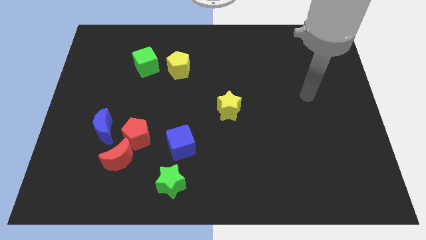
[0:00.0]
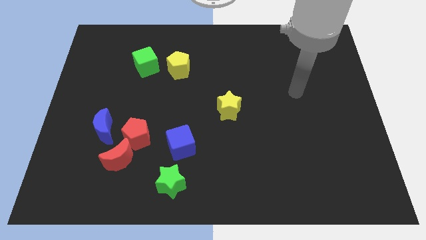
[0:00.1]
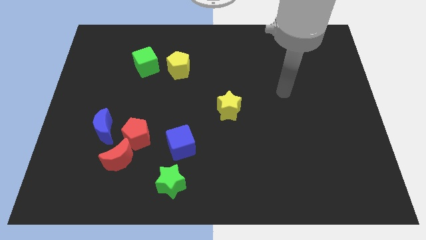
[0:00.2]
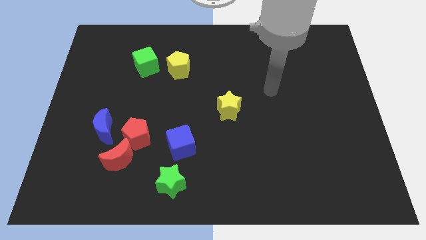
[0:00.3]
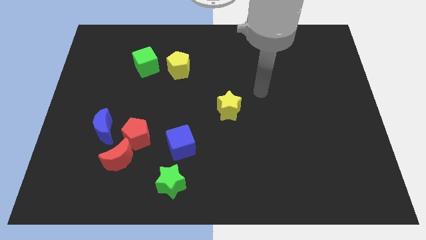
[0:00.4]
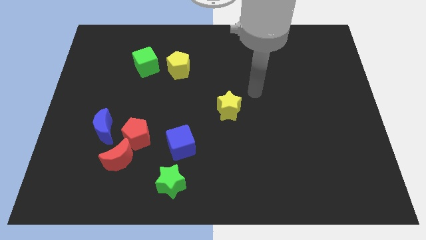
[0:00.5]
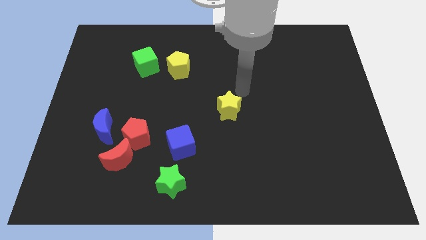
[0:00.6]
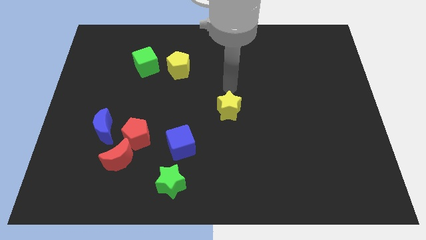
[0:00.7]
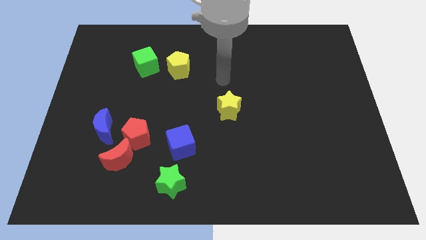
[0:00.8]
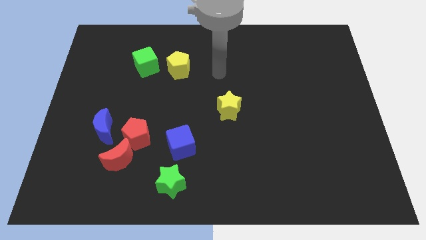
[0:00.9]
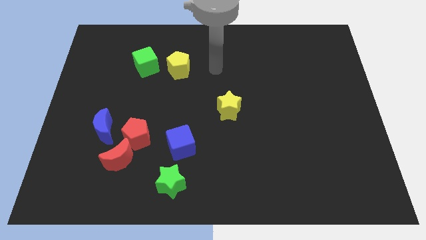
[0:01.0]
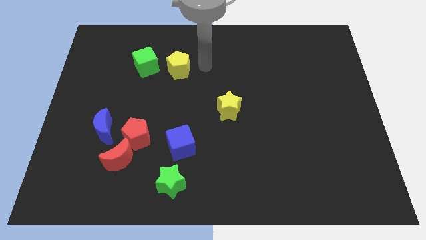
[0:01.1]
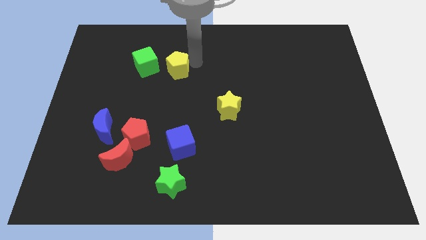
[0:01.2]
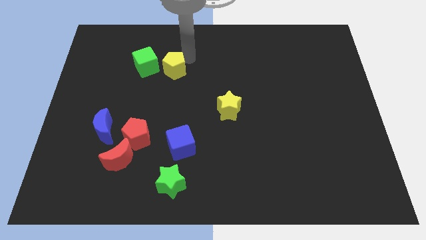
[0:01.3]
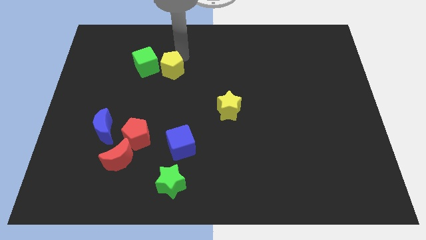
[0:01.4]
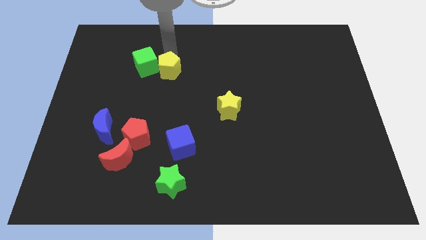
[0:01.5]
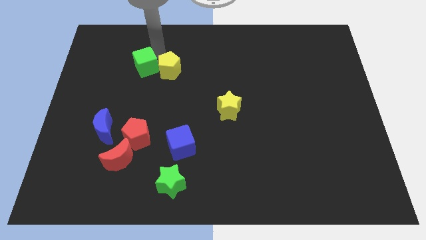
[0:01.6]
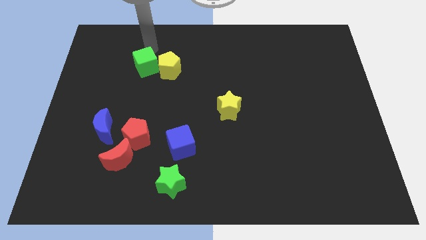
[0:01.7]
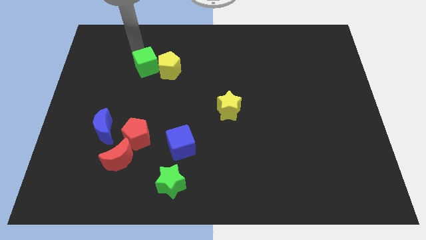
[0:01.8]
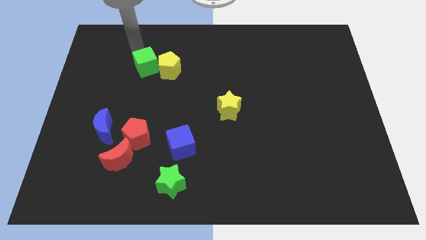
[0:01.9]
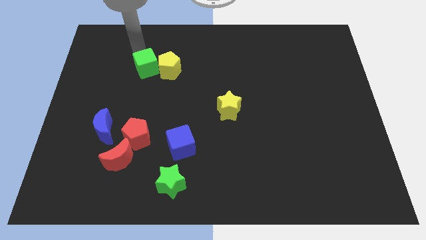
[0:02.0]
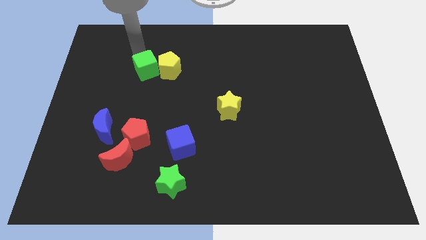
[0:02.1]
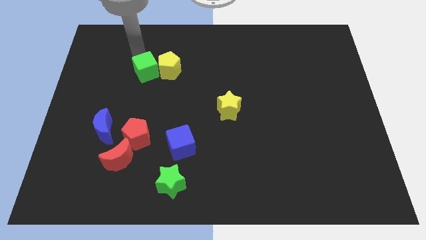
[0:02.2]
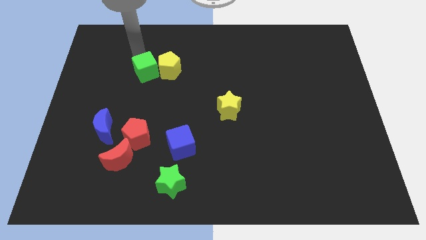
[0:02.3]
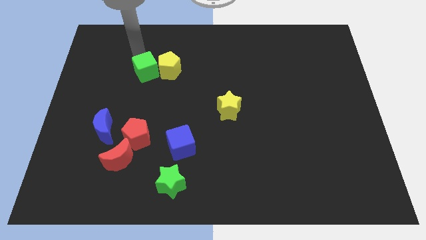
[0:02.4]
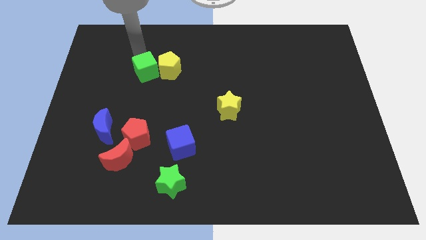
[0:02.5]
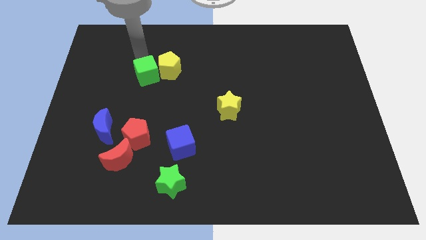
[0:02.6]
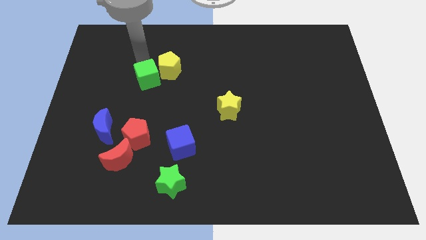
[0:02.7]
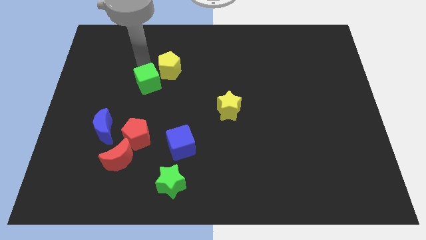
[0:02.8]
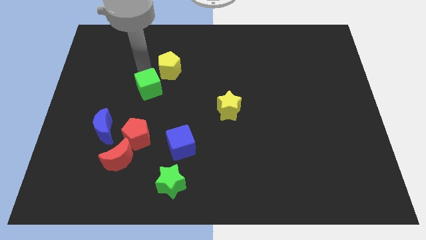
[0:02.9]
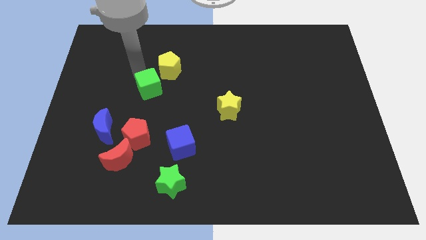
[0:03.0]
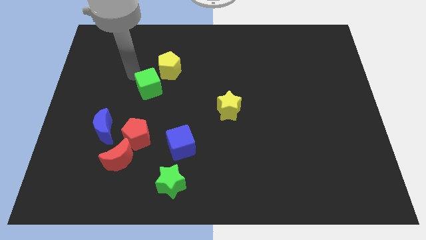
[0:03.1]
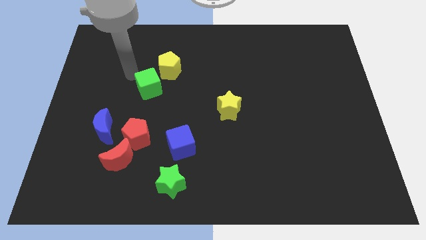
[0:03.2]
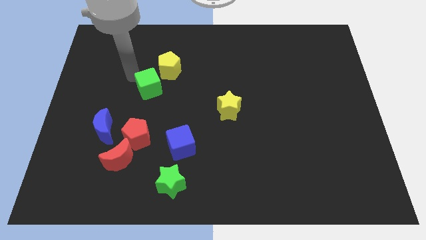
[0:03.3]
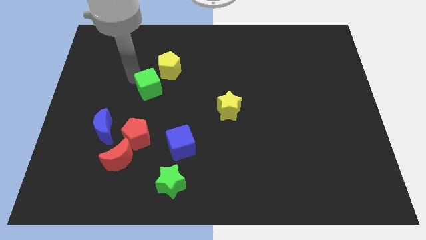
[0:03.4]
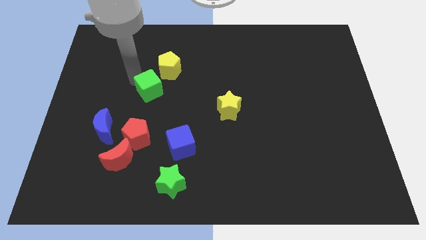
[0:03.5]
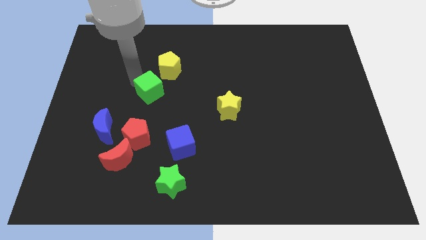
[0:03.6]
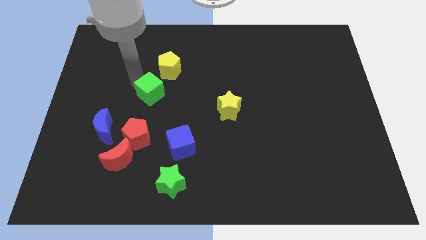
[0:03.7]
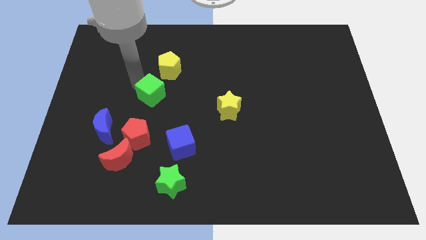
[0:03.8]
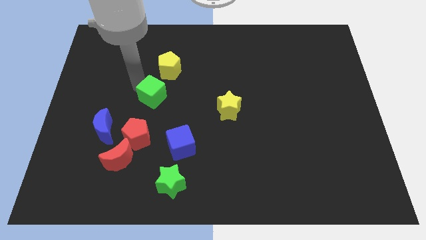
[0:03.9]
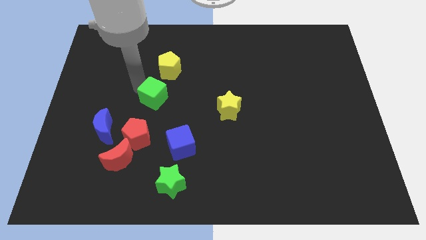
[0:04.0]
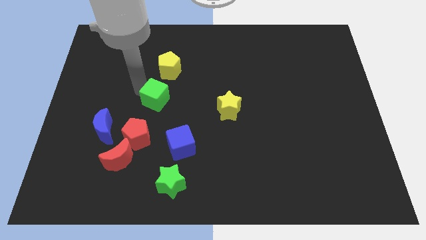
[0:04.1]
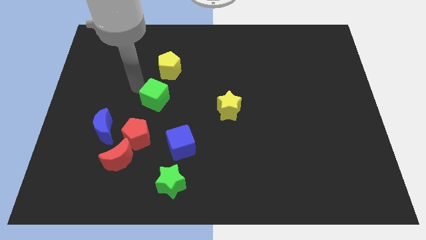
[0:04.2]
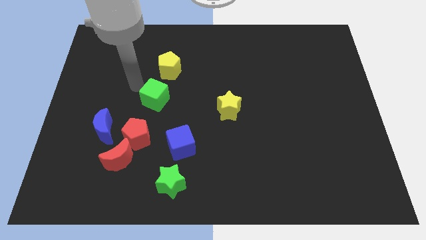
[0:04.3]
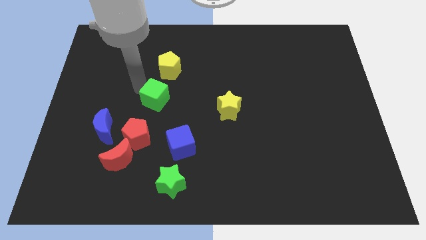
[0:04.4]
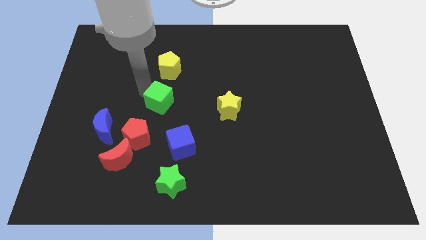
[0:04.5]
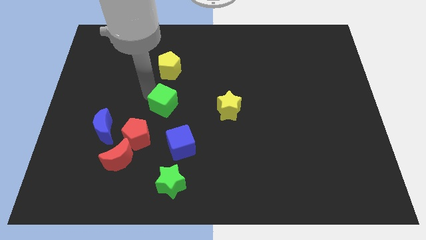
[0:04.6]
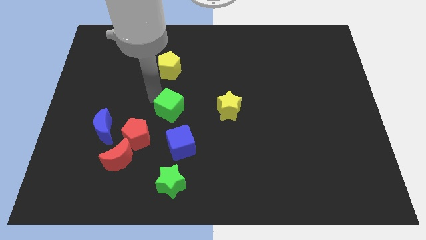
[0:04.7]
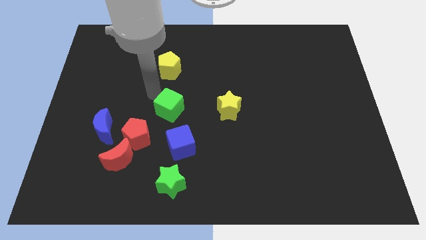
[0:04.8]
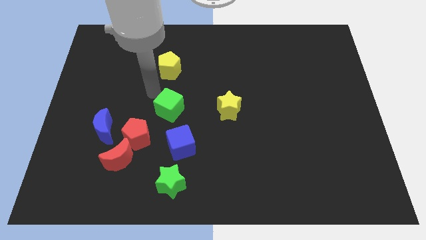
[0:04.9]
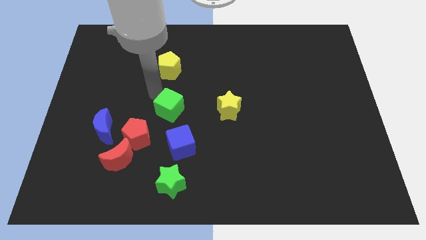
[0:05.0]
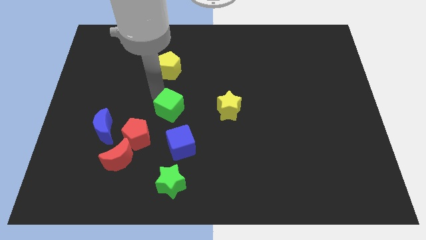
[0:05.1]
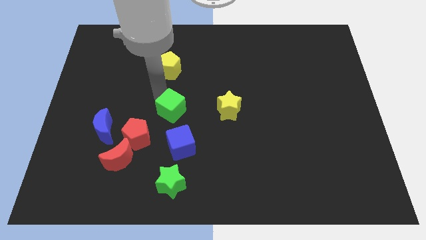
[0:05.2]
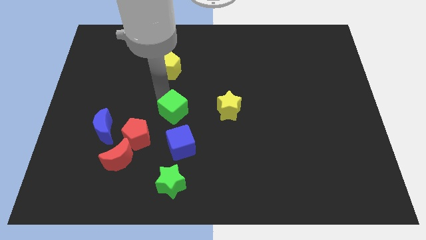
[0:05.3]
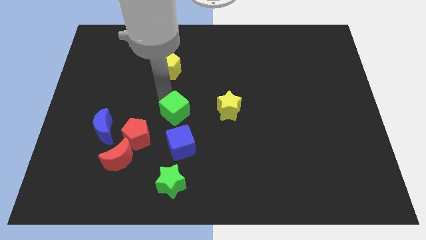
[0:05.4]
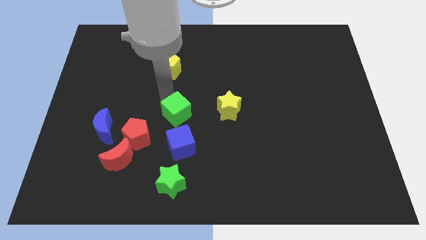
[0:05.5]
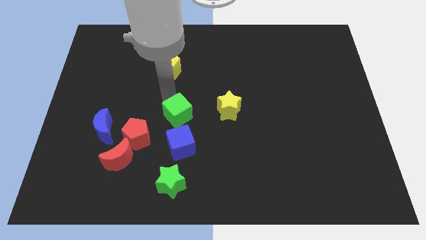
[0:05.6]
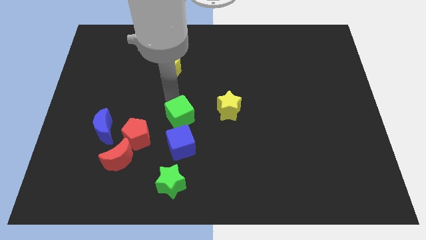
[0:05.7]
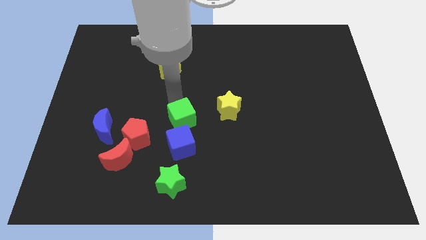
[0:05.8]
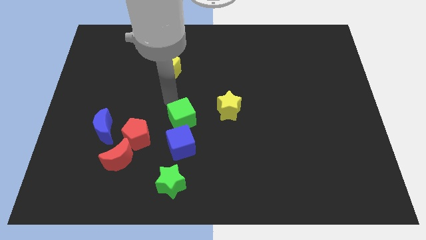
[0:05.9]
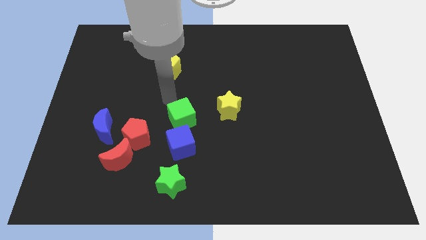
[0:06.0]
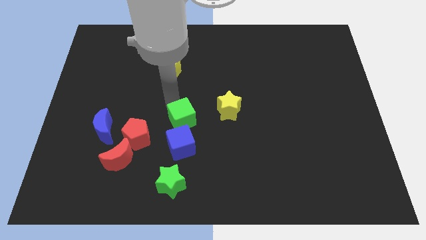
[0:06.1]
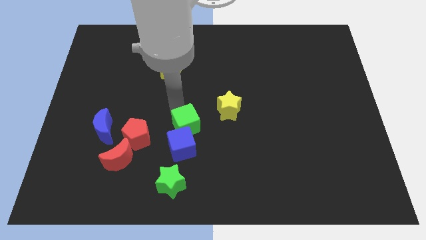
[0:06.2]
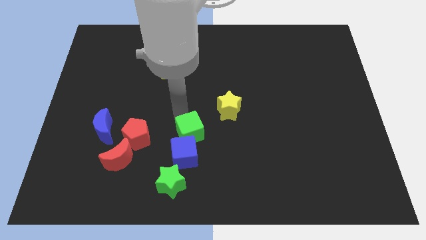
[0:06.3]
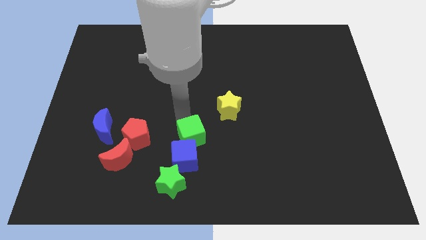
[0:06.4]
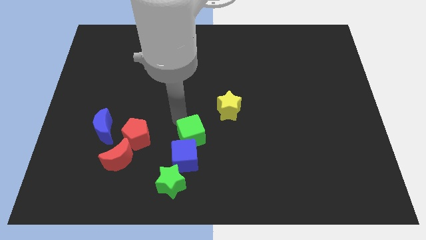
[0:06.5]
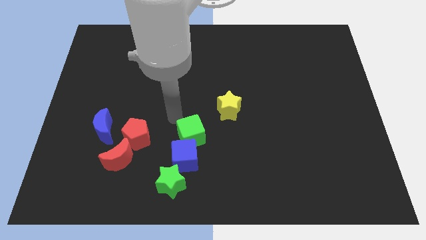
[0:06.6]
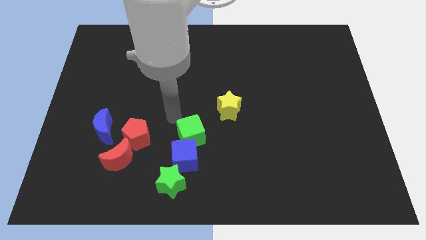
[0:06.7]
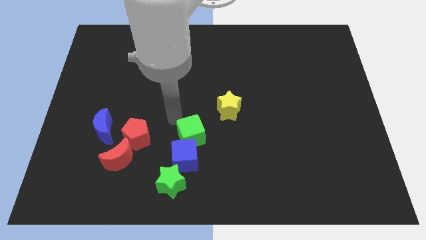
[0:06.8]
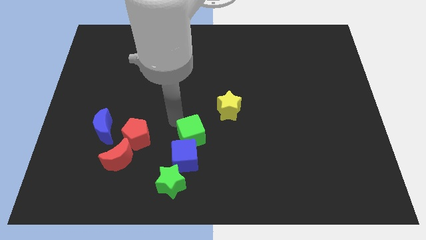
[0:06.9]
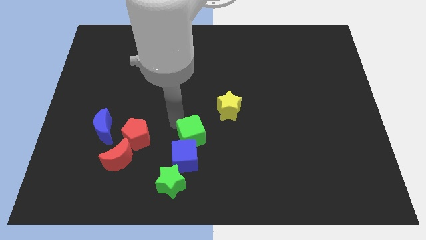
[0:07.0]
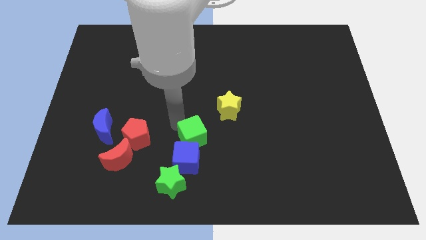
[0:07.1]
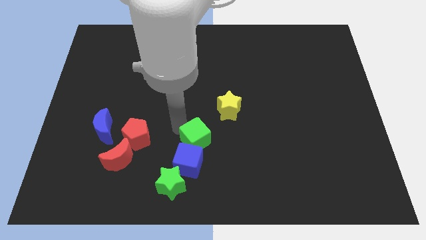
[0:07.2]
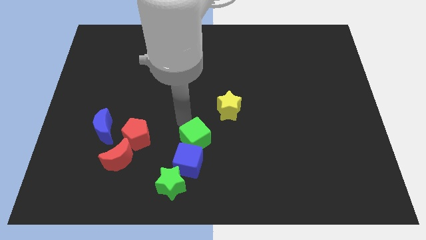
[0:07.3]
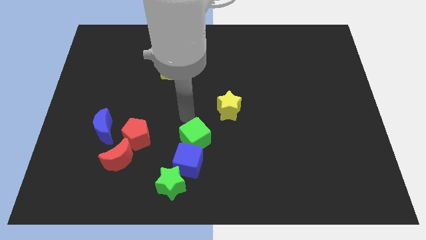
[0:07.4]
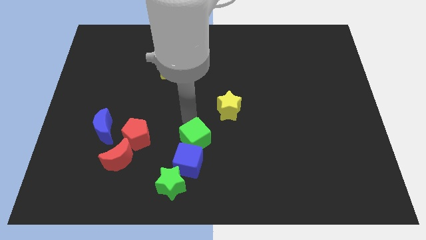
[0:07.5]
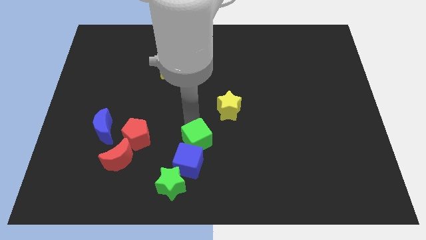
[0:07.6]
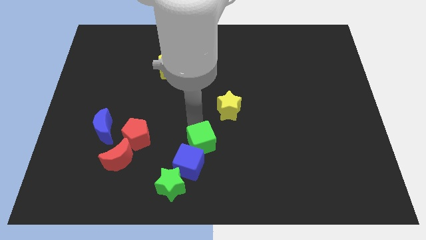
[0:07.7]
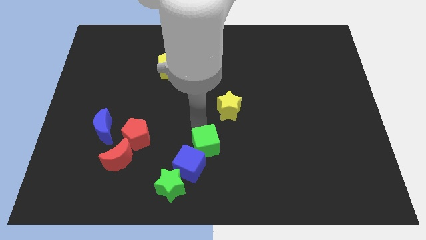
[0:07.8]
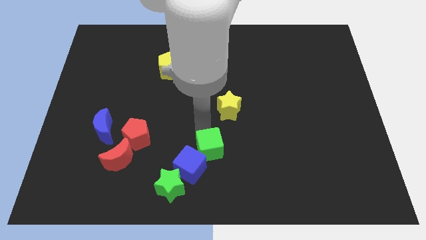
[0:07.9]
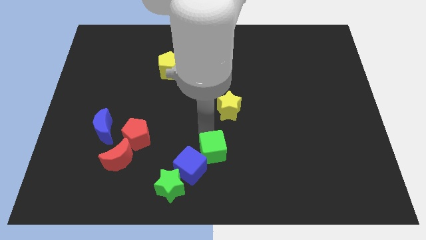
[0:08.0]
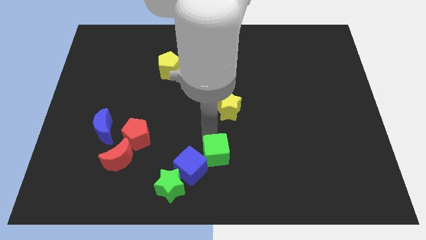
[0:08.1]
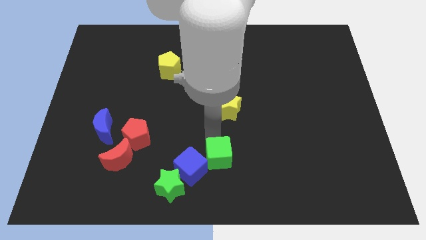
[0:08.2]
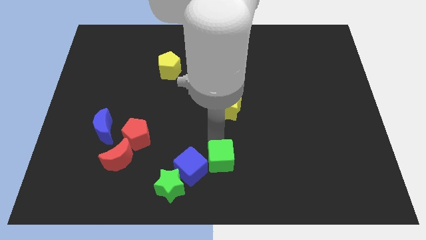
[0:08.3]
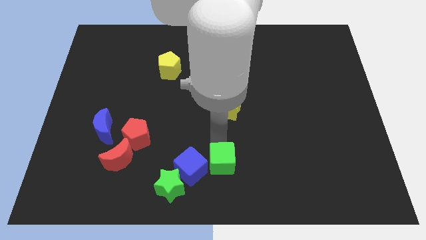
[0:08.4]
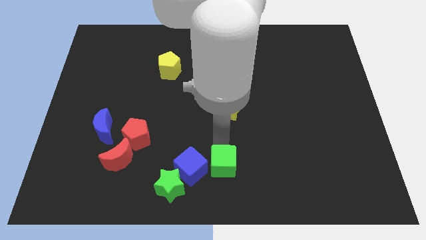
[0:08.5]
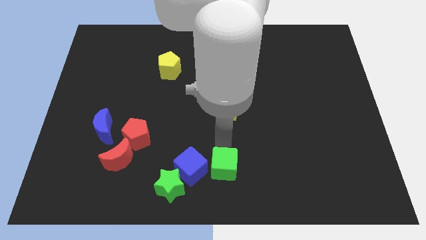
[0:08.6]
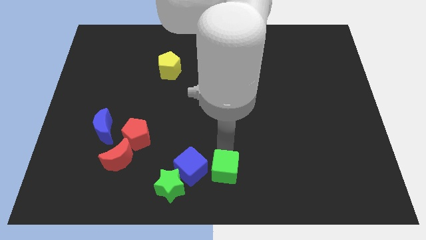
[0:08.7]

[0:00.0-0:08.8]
move the green cube to the bottom right side of the blue cube
